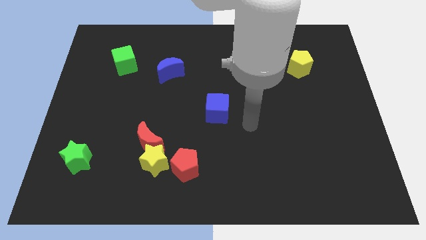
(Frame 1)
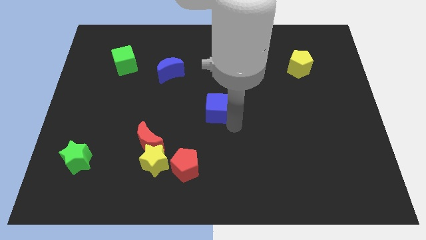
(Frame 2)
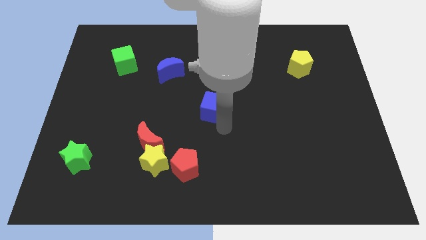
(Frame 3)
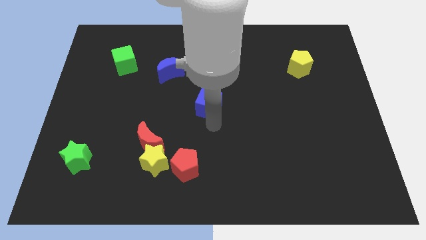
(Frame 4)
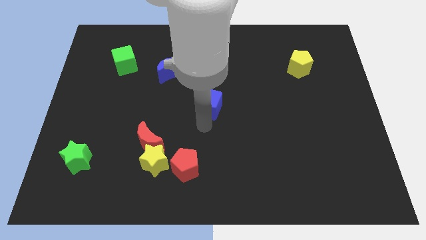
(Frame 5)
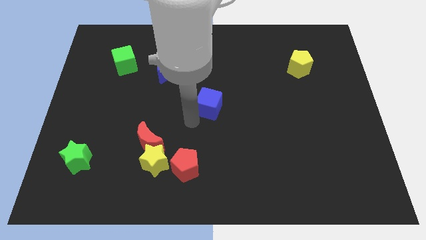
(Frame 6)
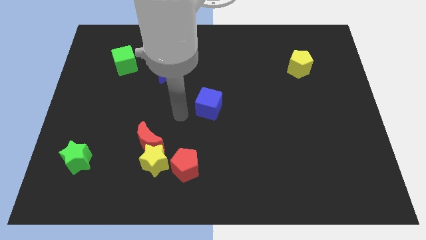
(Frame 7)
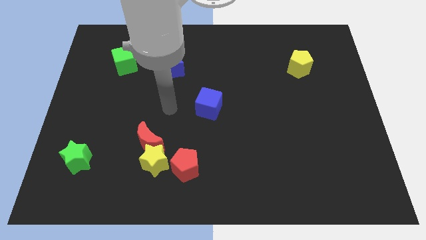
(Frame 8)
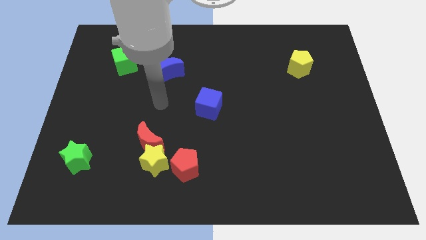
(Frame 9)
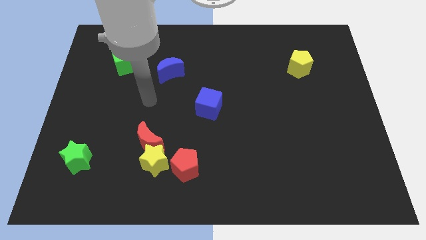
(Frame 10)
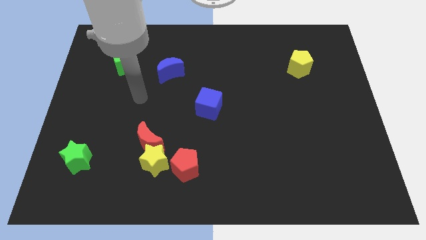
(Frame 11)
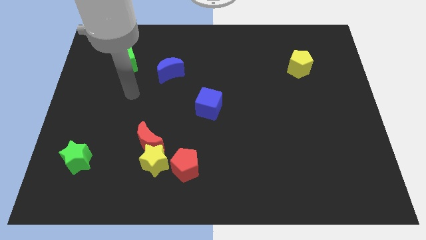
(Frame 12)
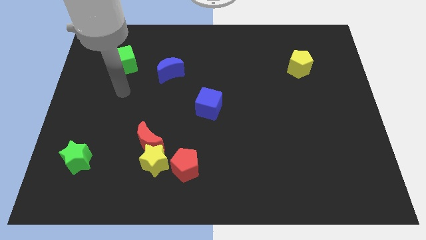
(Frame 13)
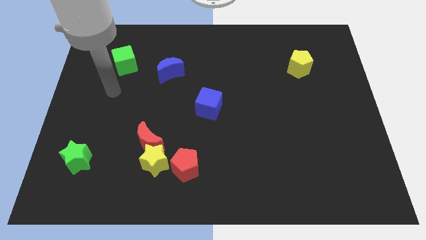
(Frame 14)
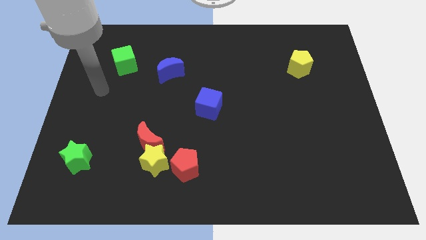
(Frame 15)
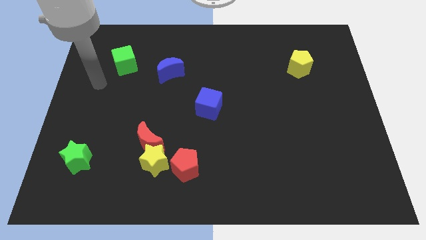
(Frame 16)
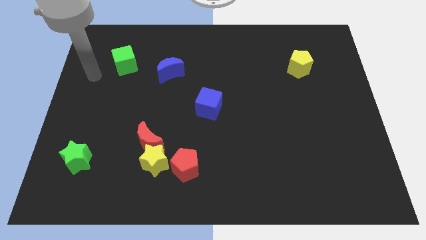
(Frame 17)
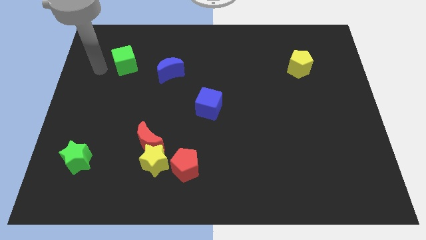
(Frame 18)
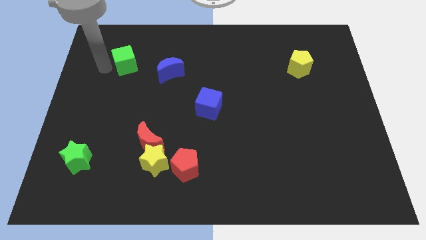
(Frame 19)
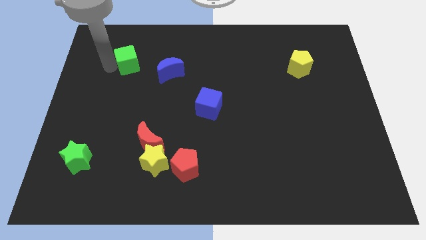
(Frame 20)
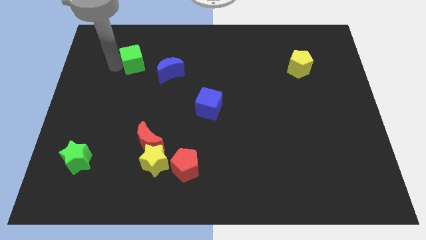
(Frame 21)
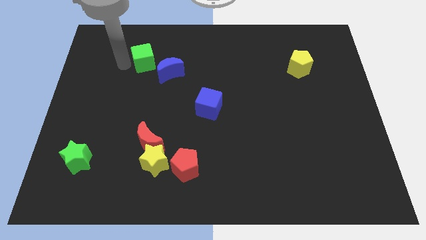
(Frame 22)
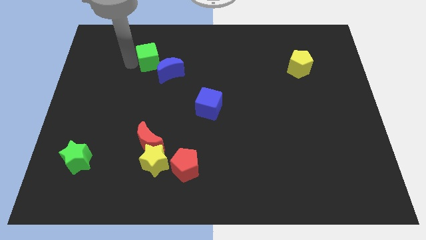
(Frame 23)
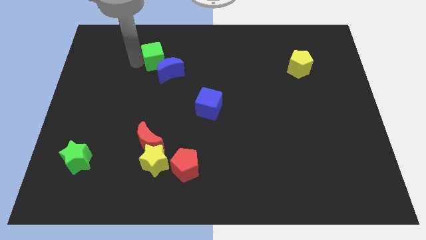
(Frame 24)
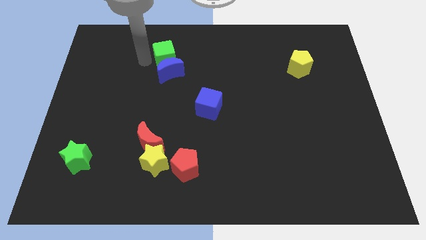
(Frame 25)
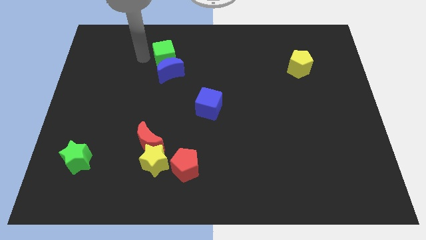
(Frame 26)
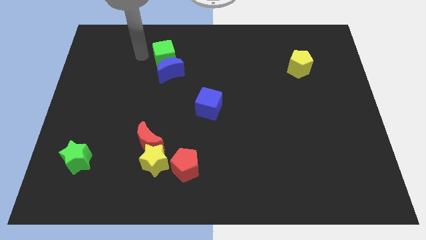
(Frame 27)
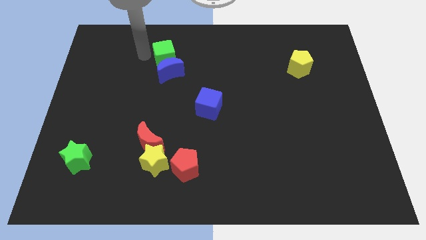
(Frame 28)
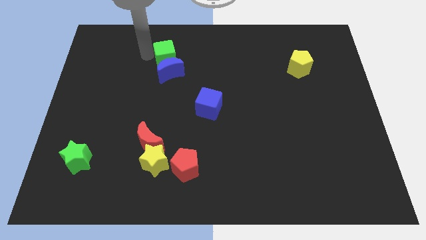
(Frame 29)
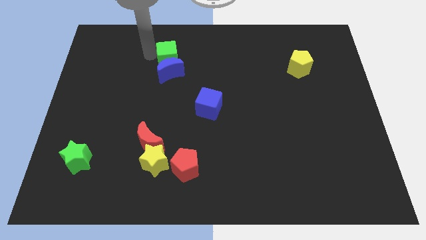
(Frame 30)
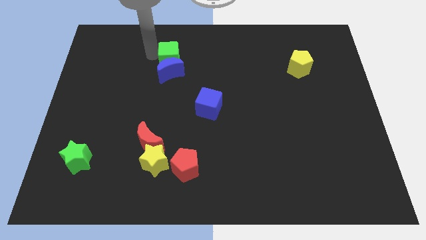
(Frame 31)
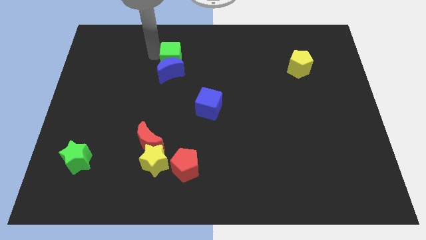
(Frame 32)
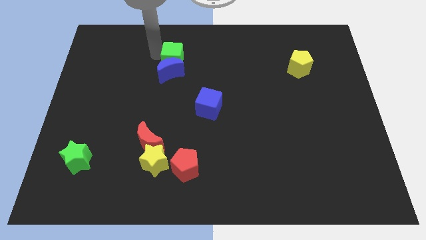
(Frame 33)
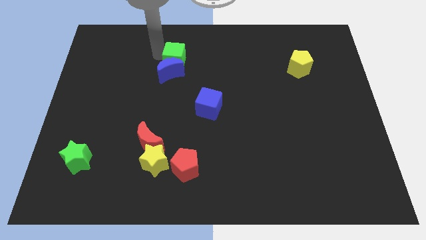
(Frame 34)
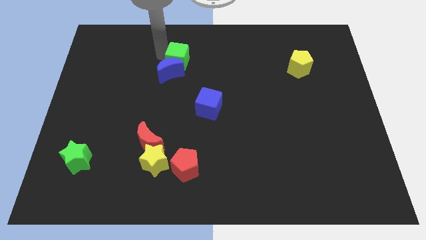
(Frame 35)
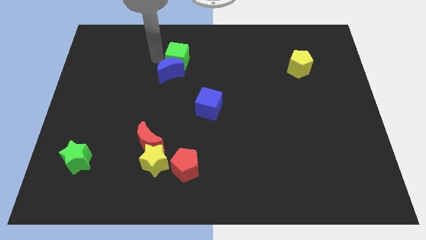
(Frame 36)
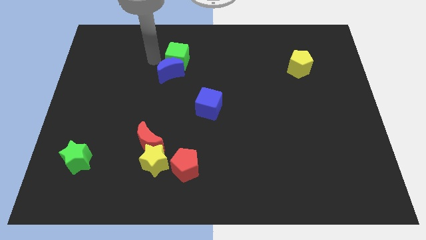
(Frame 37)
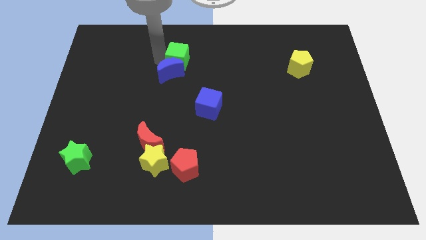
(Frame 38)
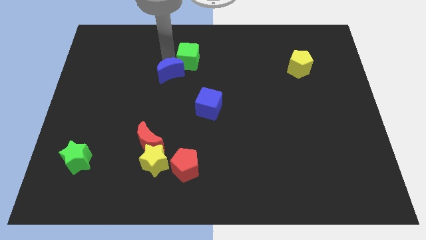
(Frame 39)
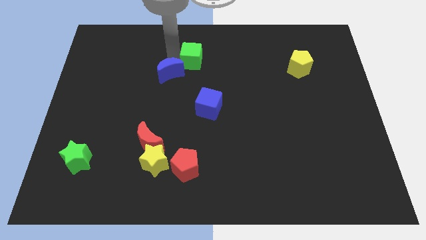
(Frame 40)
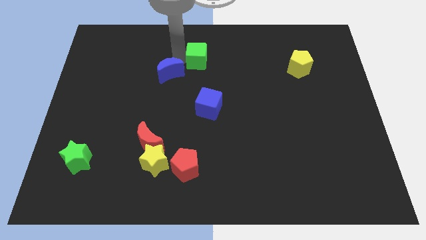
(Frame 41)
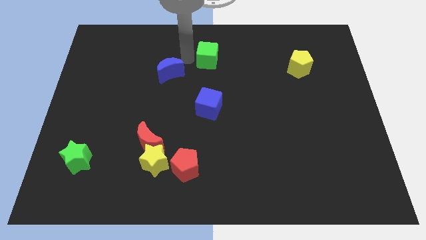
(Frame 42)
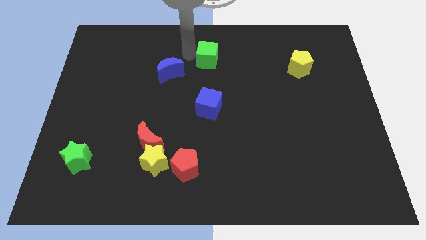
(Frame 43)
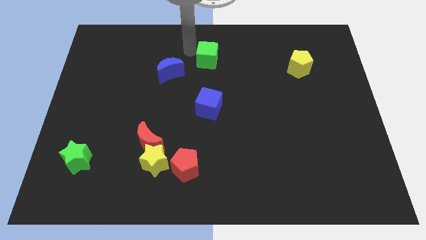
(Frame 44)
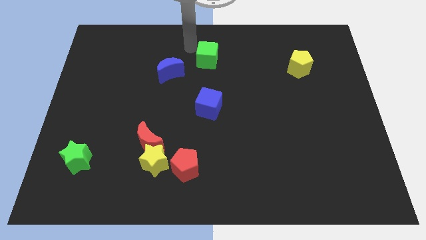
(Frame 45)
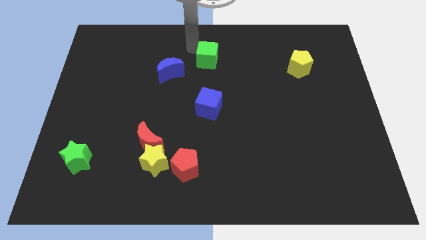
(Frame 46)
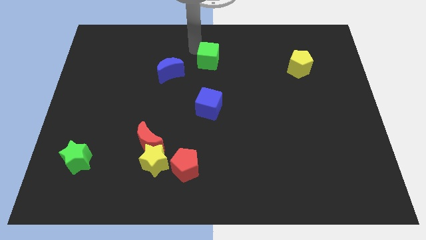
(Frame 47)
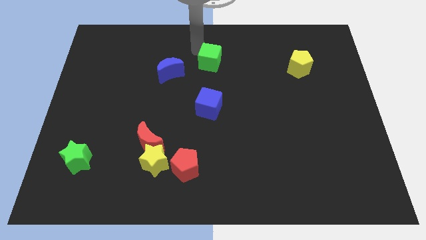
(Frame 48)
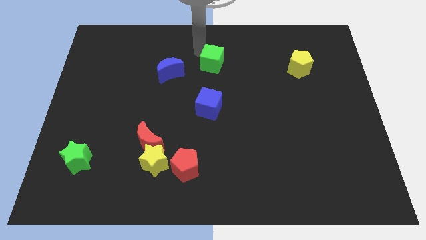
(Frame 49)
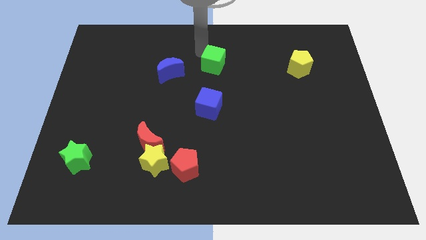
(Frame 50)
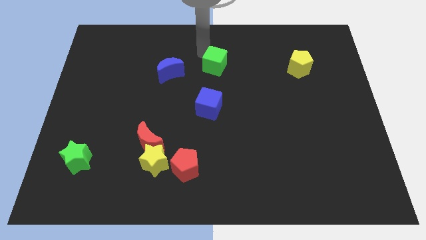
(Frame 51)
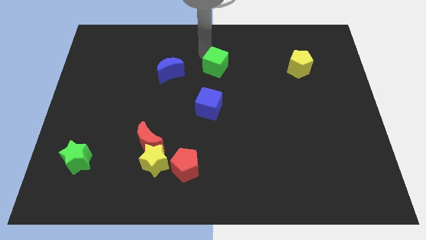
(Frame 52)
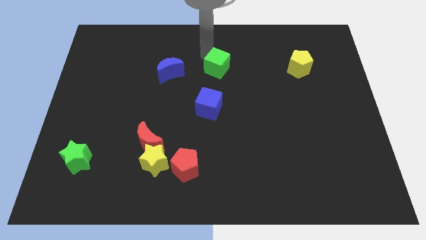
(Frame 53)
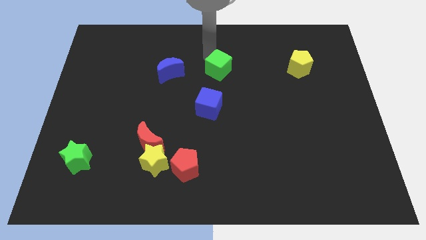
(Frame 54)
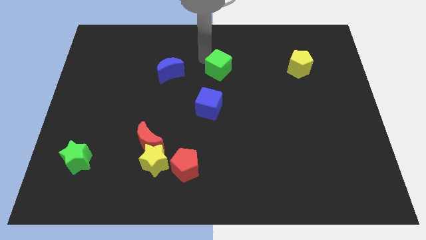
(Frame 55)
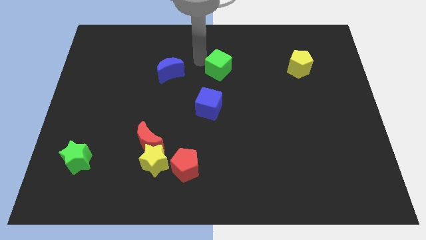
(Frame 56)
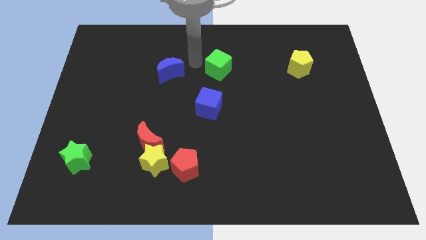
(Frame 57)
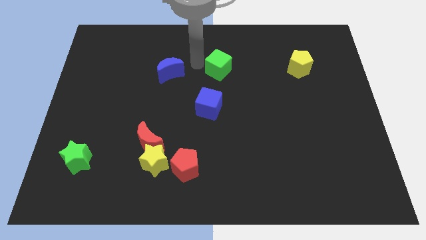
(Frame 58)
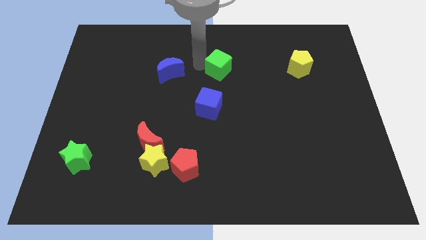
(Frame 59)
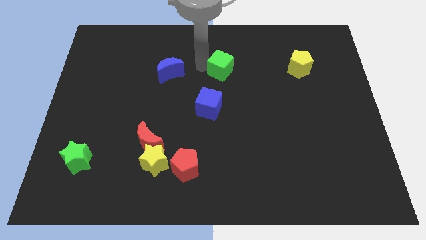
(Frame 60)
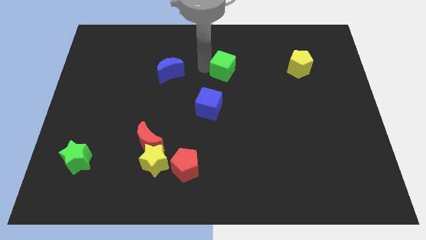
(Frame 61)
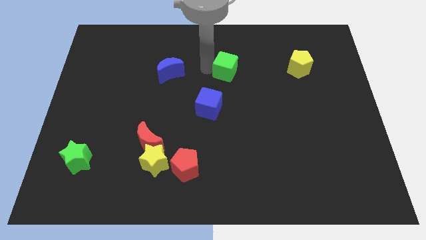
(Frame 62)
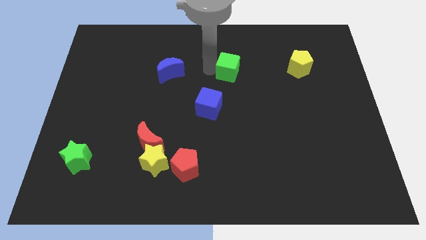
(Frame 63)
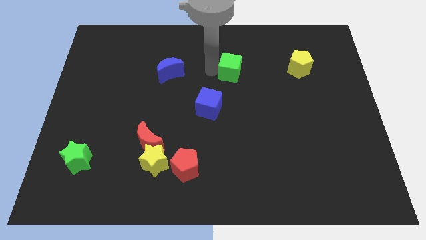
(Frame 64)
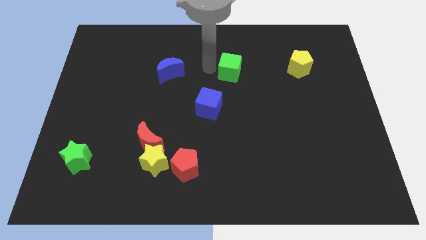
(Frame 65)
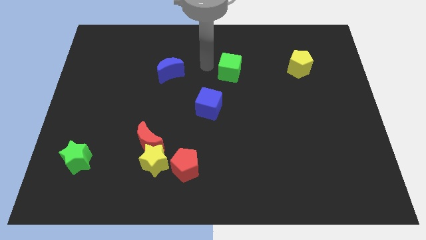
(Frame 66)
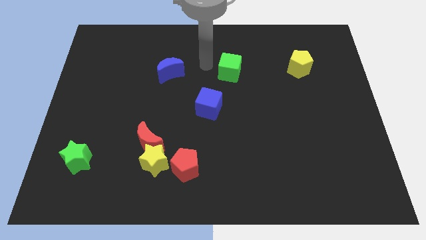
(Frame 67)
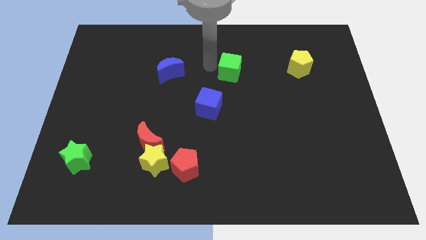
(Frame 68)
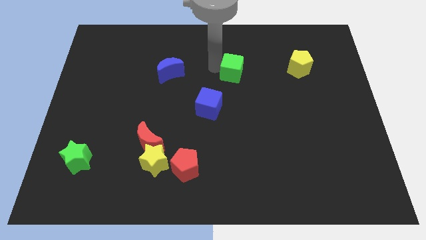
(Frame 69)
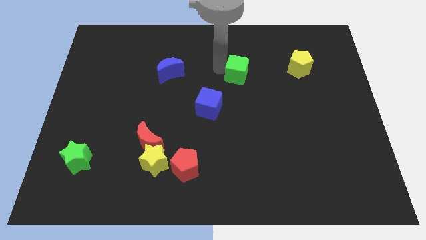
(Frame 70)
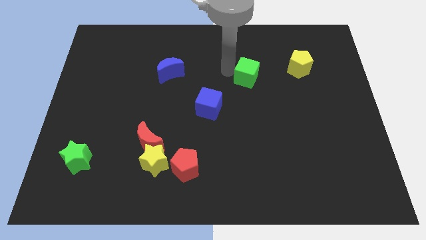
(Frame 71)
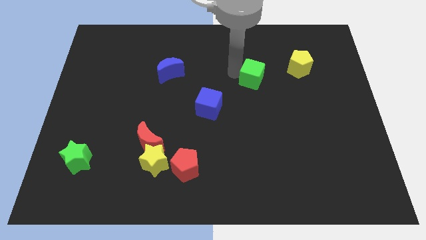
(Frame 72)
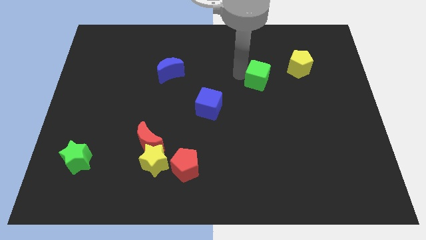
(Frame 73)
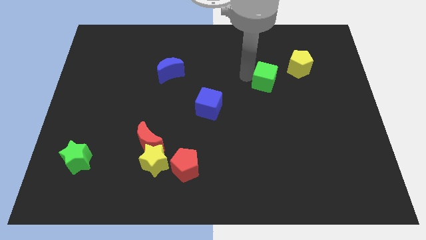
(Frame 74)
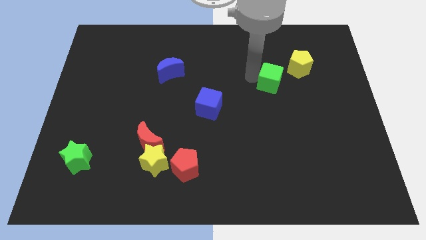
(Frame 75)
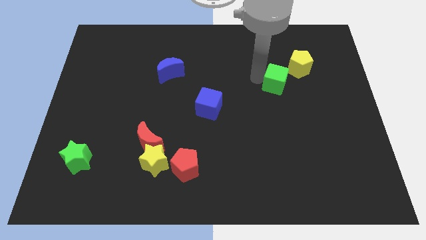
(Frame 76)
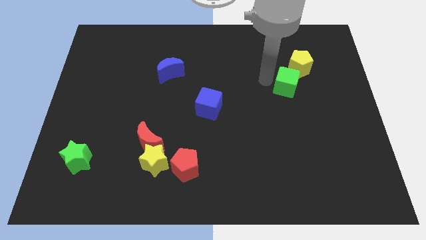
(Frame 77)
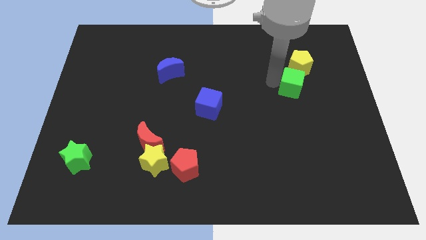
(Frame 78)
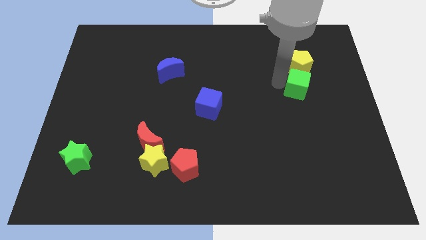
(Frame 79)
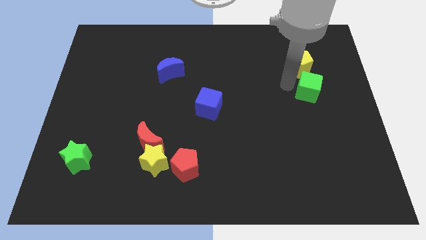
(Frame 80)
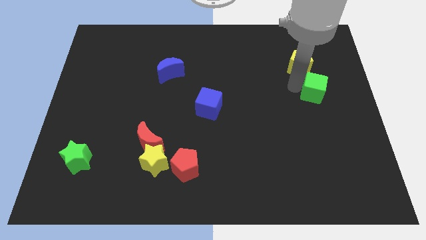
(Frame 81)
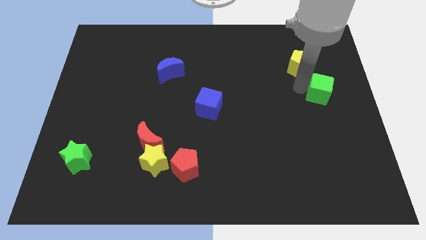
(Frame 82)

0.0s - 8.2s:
put the green cube to the center right
